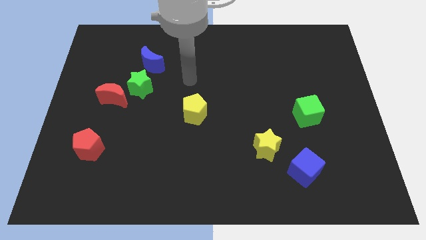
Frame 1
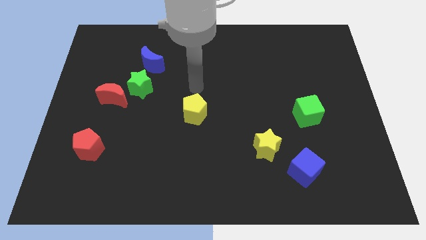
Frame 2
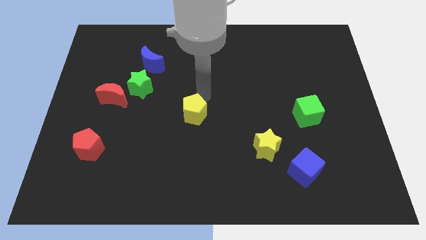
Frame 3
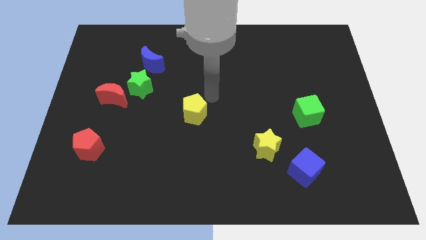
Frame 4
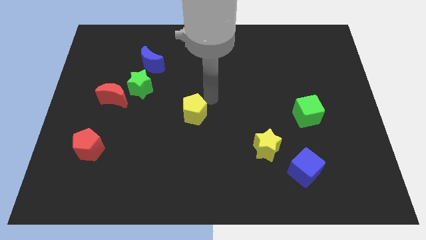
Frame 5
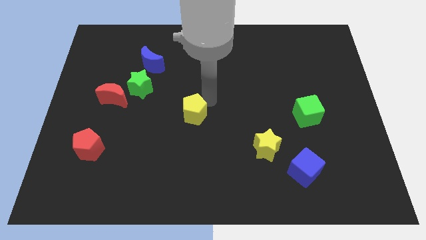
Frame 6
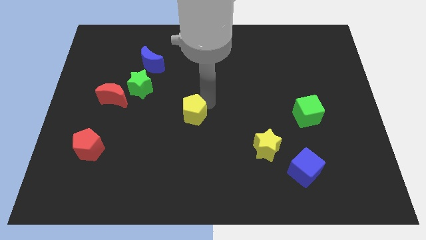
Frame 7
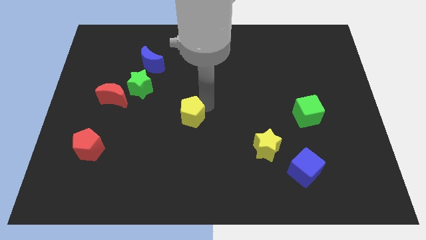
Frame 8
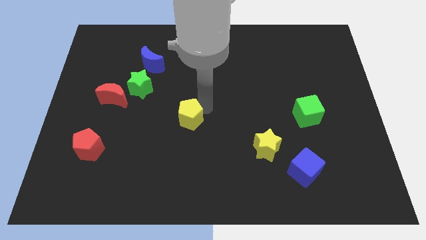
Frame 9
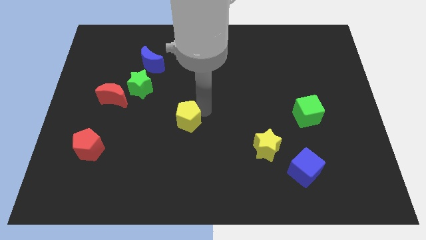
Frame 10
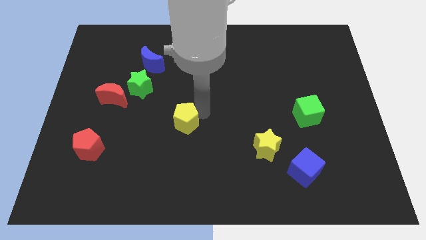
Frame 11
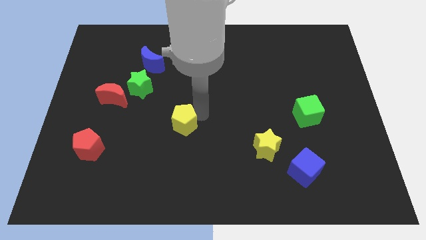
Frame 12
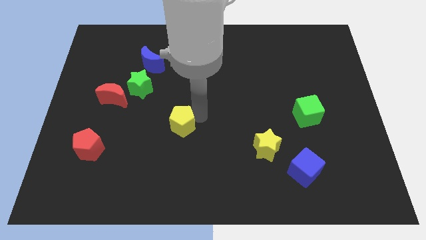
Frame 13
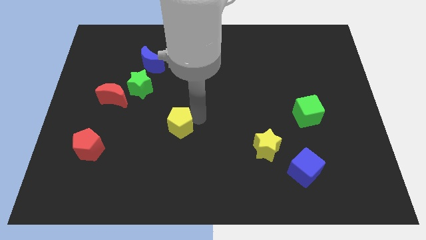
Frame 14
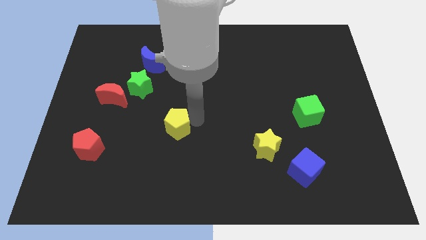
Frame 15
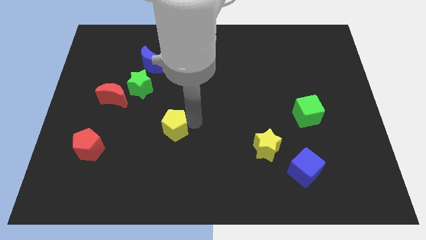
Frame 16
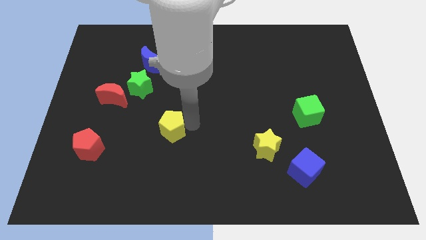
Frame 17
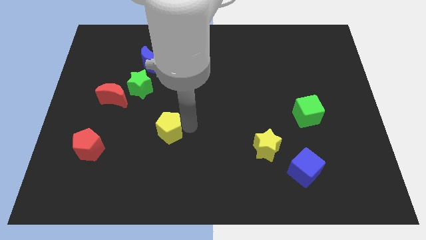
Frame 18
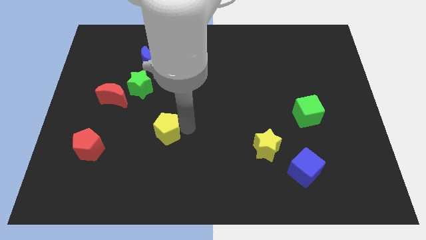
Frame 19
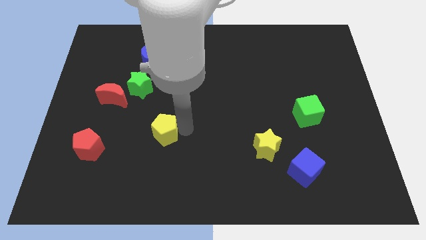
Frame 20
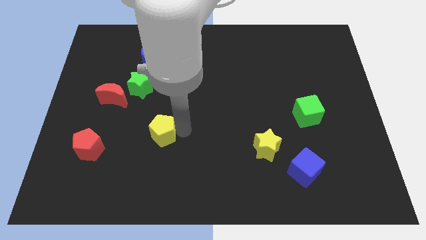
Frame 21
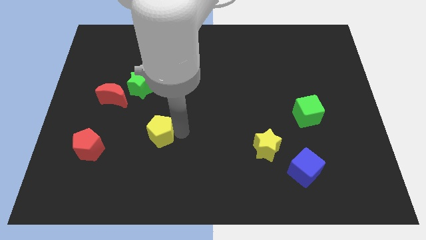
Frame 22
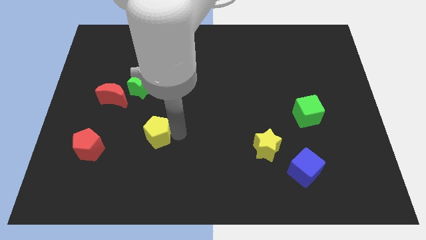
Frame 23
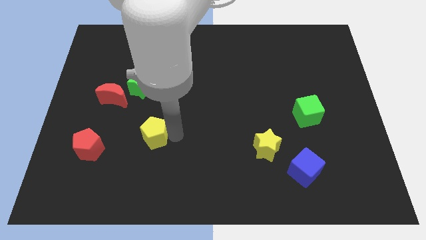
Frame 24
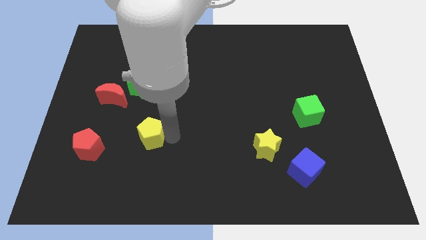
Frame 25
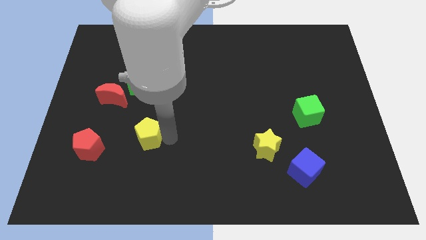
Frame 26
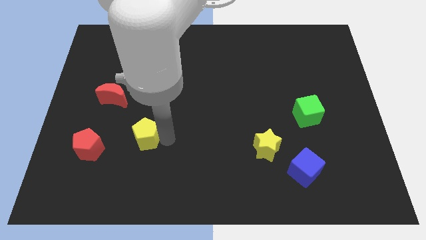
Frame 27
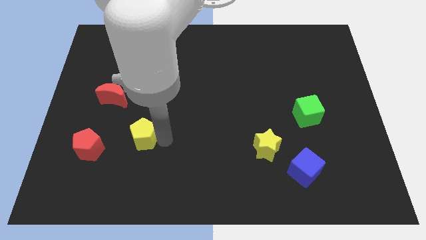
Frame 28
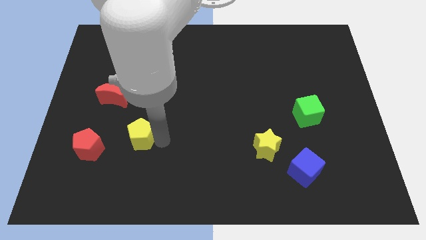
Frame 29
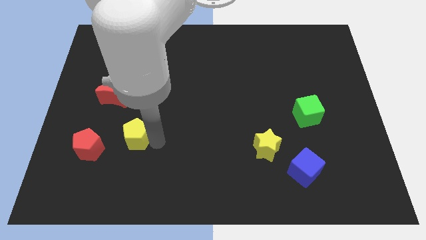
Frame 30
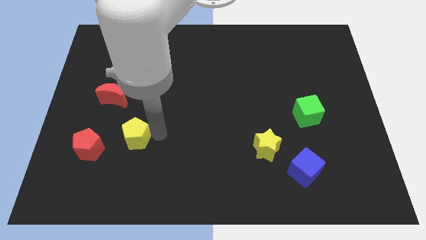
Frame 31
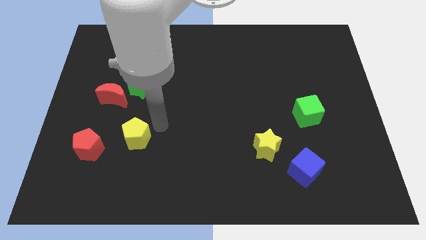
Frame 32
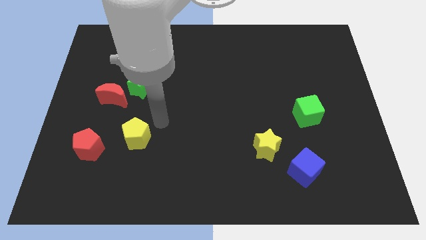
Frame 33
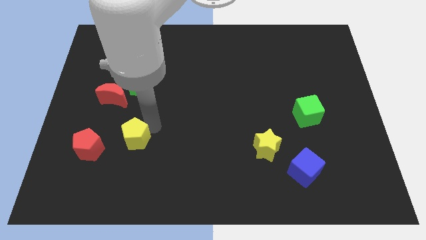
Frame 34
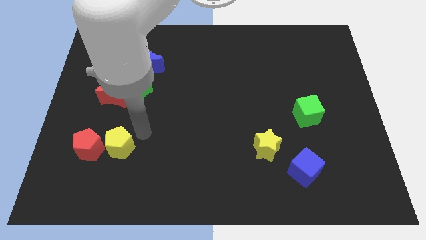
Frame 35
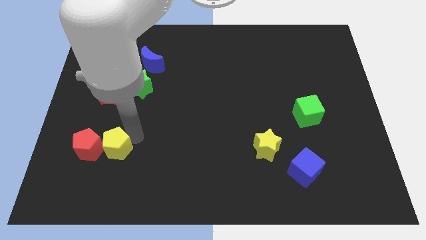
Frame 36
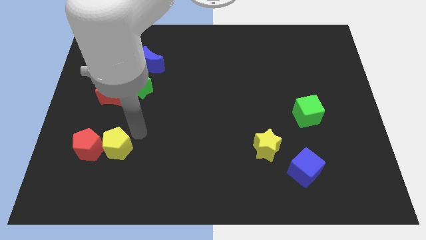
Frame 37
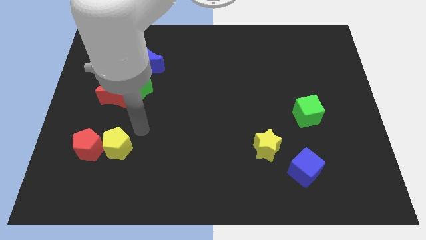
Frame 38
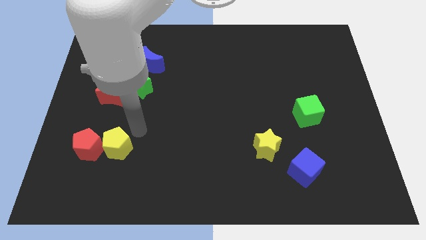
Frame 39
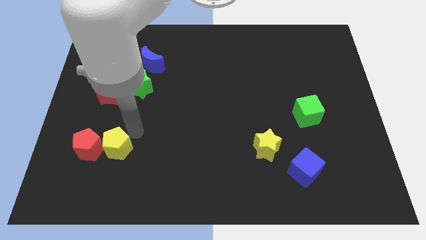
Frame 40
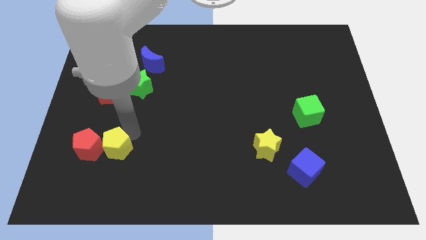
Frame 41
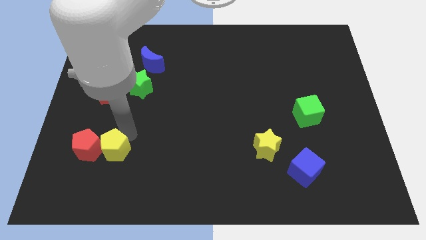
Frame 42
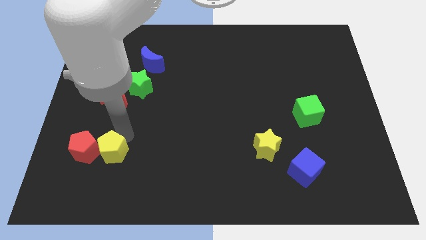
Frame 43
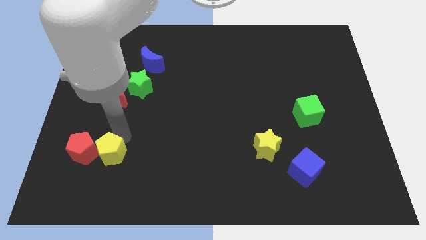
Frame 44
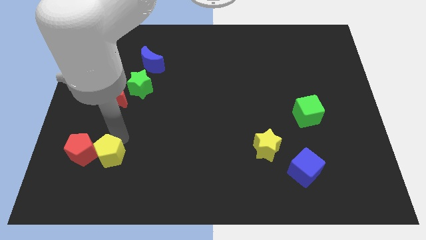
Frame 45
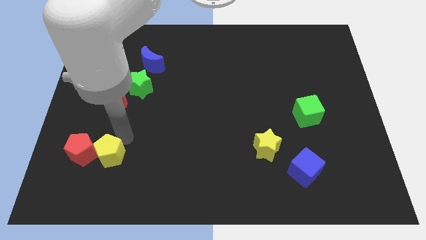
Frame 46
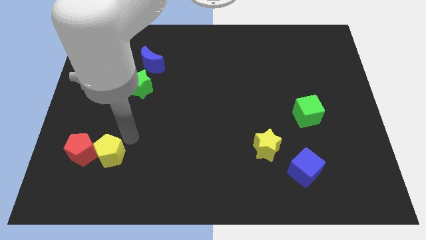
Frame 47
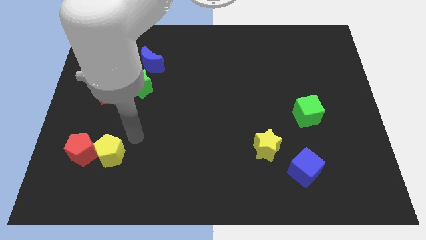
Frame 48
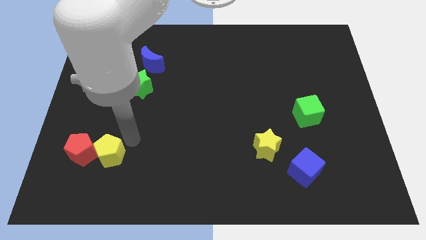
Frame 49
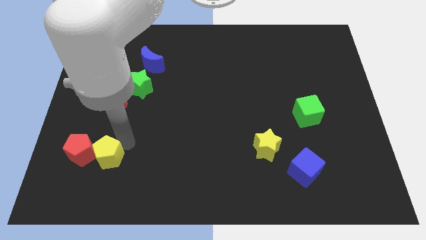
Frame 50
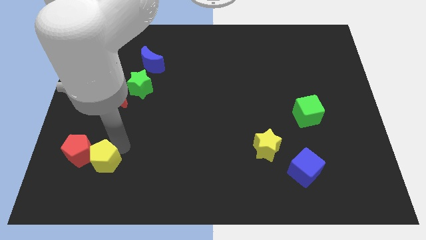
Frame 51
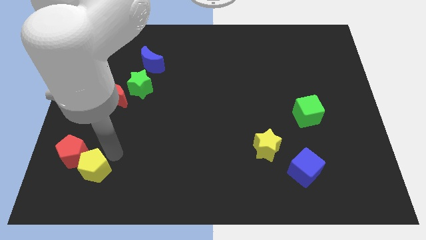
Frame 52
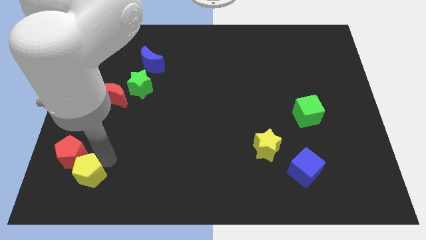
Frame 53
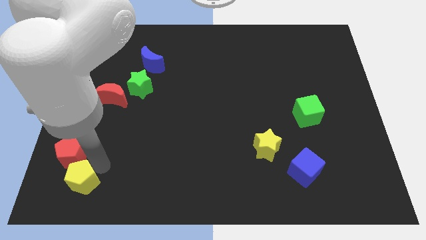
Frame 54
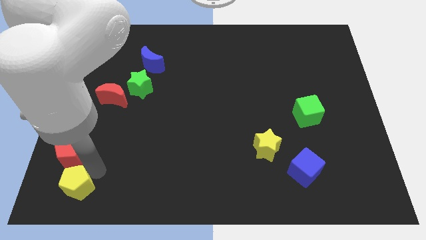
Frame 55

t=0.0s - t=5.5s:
push the yellow pentagon to the bottom left
